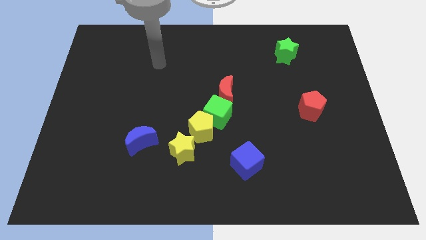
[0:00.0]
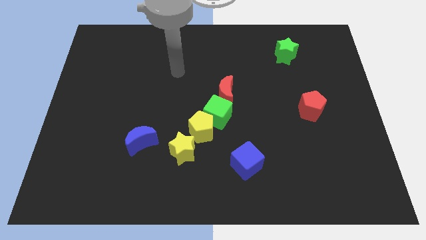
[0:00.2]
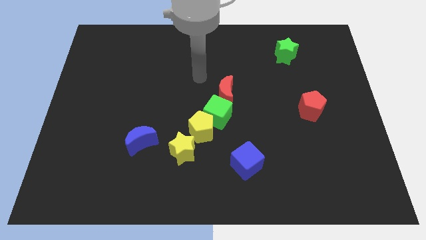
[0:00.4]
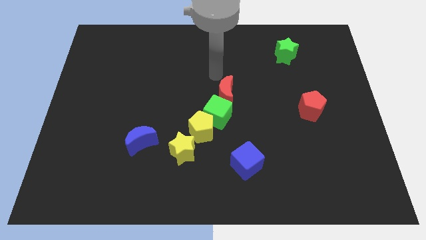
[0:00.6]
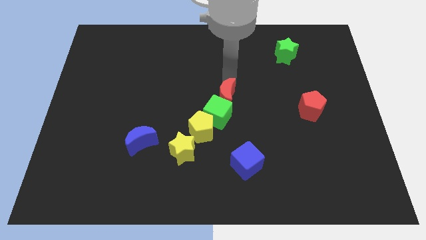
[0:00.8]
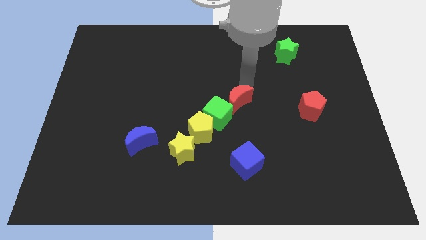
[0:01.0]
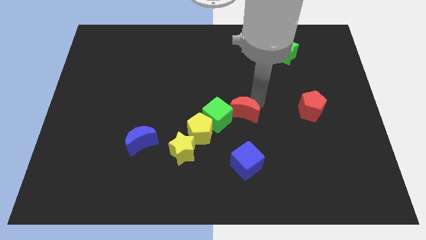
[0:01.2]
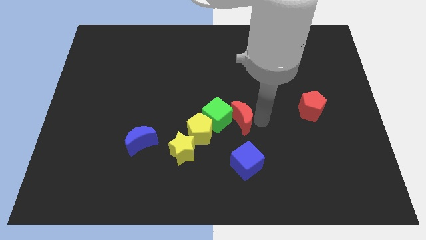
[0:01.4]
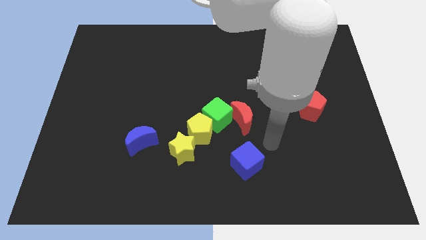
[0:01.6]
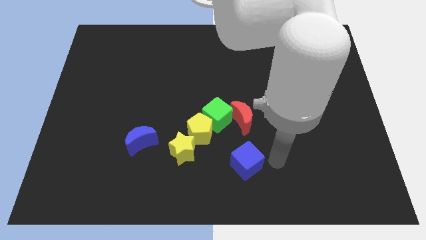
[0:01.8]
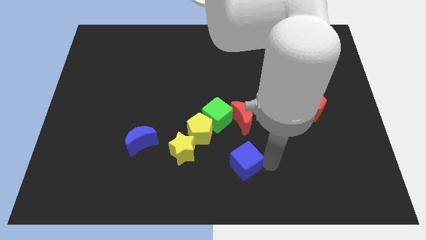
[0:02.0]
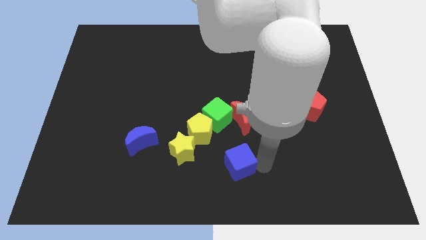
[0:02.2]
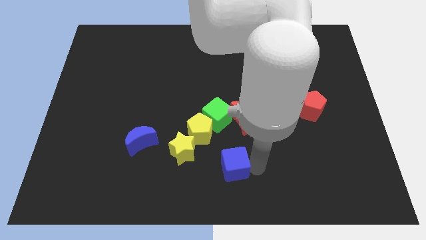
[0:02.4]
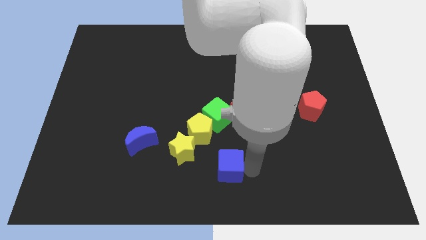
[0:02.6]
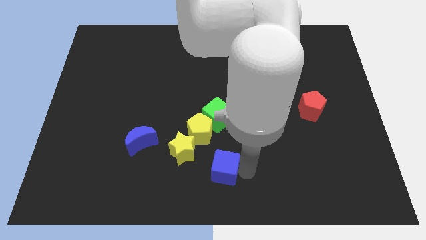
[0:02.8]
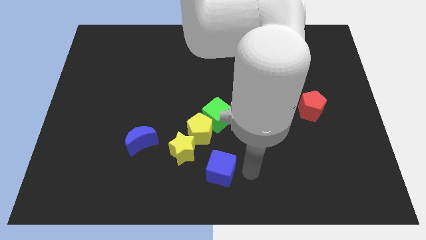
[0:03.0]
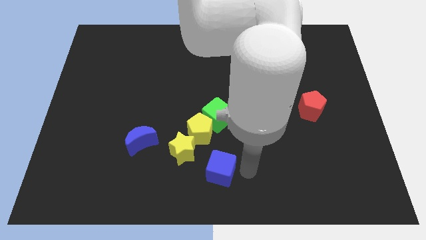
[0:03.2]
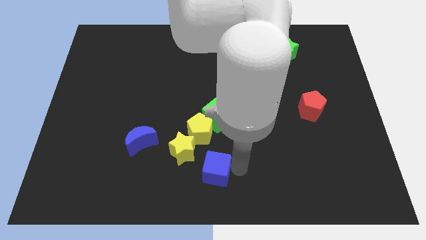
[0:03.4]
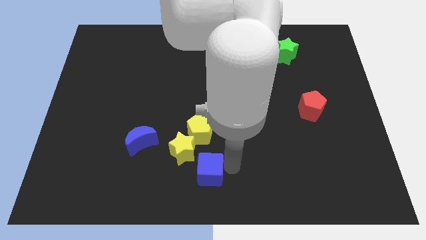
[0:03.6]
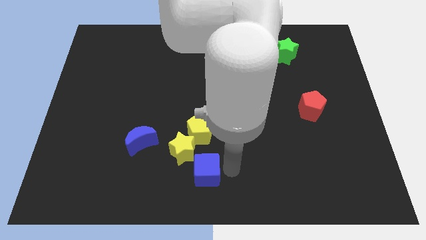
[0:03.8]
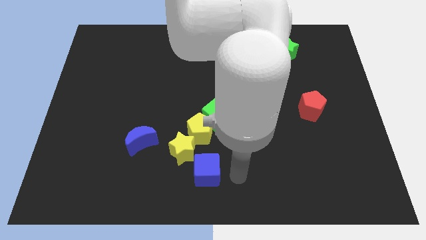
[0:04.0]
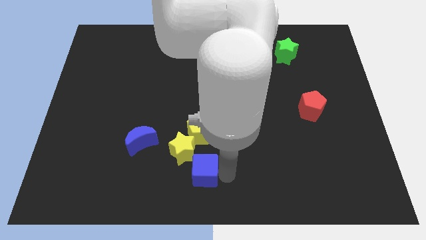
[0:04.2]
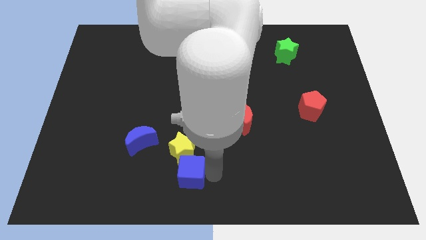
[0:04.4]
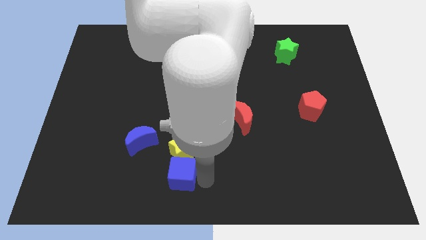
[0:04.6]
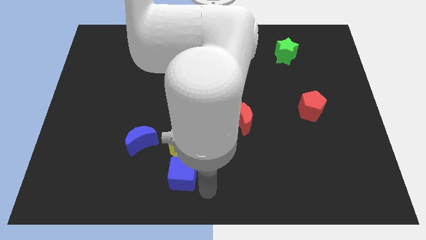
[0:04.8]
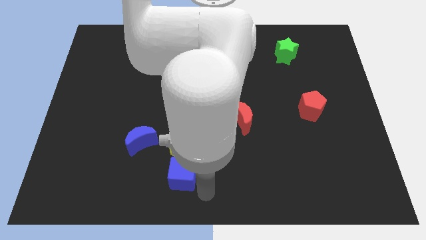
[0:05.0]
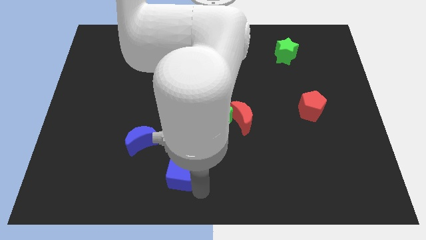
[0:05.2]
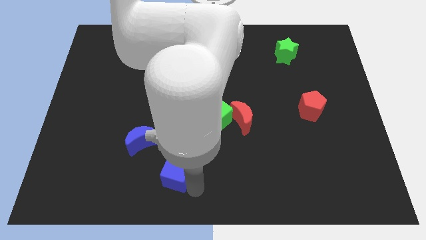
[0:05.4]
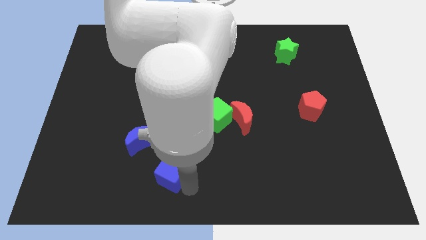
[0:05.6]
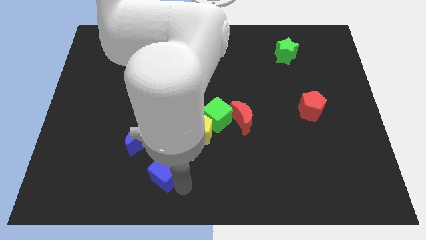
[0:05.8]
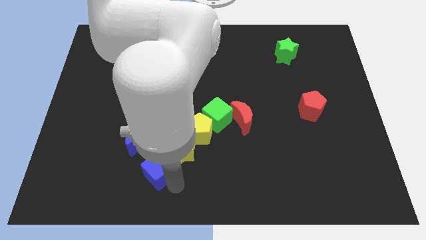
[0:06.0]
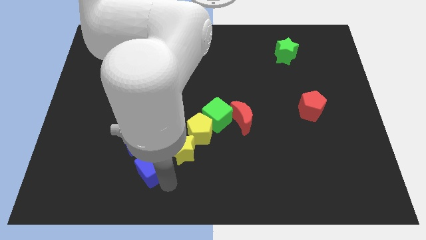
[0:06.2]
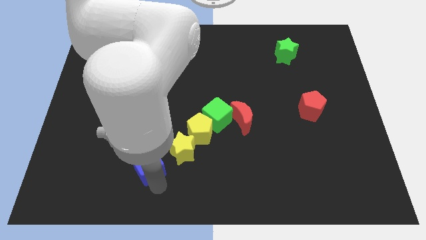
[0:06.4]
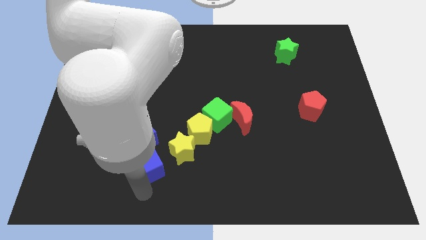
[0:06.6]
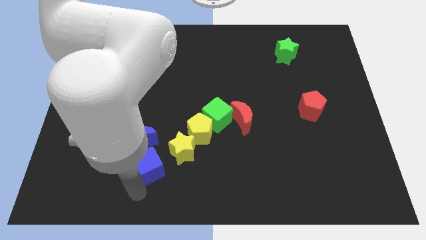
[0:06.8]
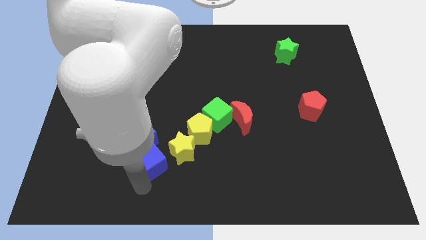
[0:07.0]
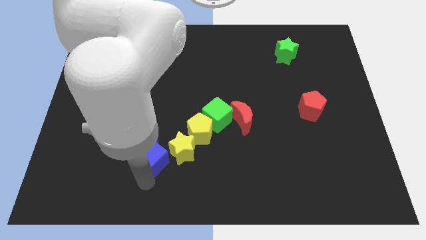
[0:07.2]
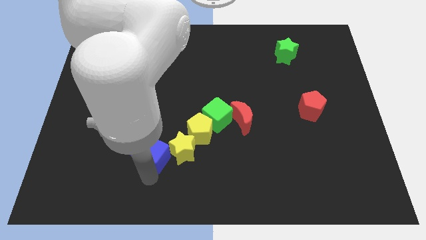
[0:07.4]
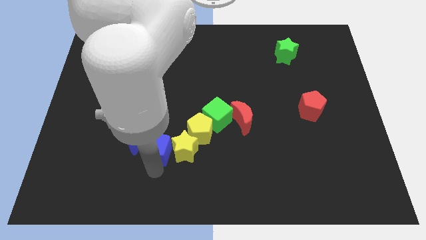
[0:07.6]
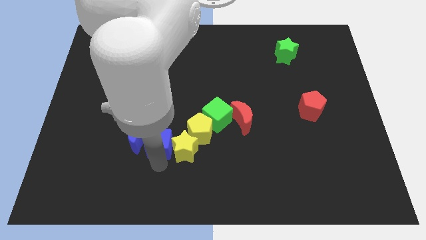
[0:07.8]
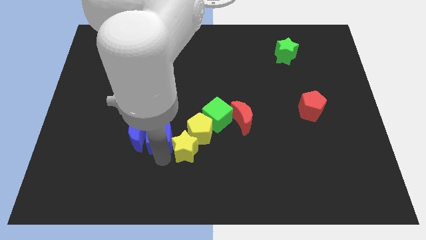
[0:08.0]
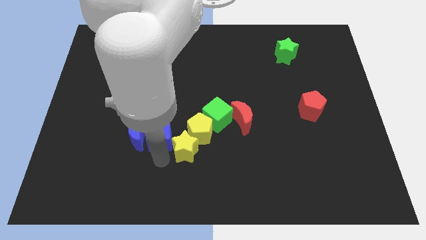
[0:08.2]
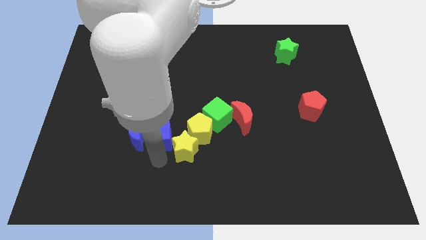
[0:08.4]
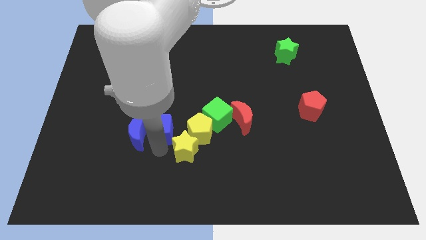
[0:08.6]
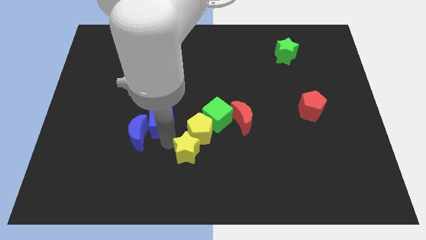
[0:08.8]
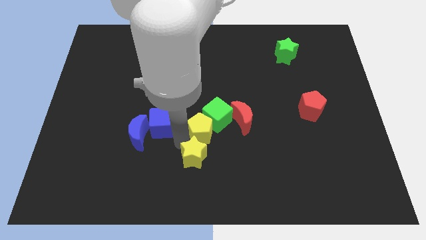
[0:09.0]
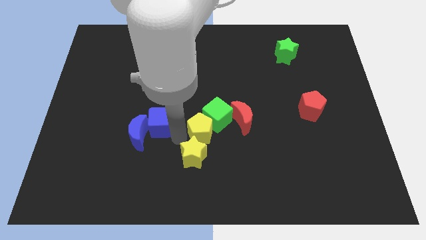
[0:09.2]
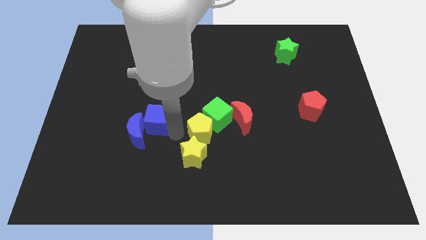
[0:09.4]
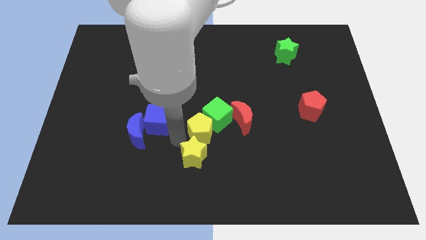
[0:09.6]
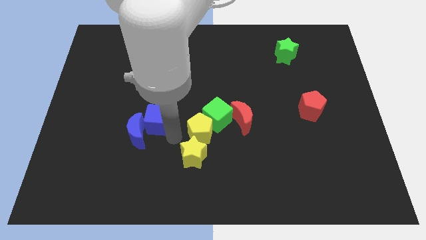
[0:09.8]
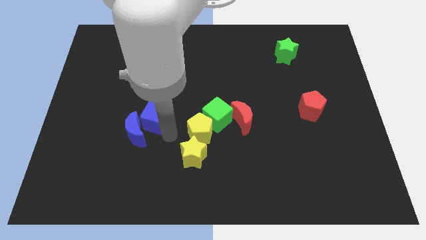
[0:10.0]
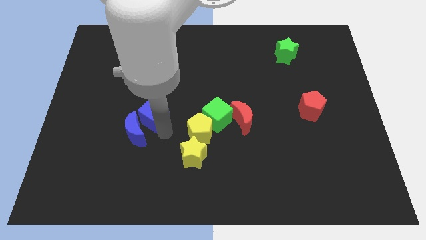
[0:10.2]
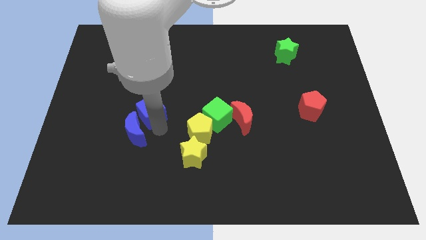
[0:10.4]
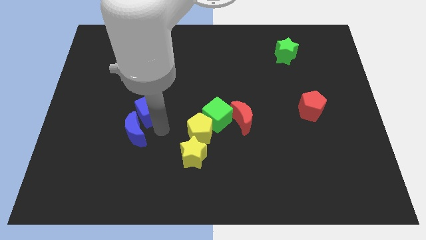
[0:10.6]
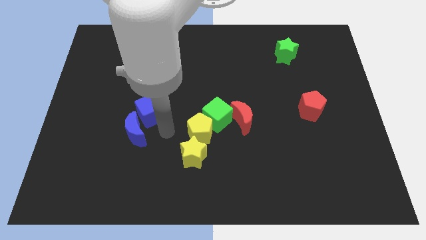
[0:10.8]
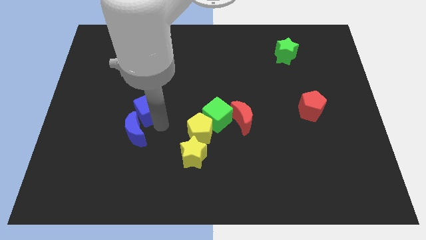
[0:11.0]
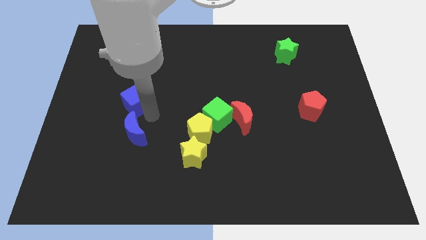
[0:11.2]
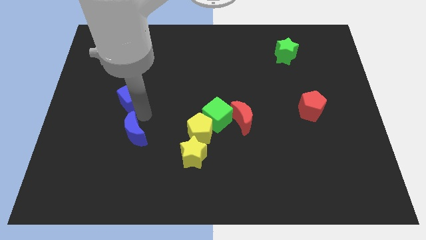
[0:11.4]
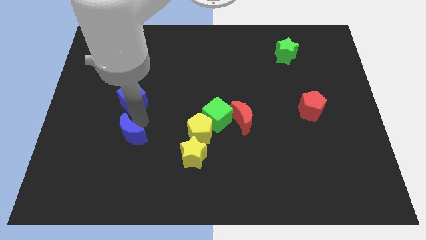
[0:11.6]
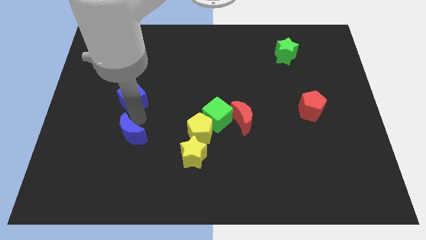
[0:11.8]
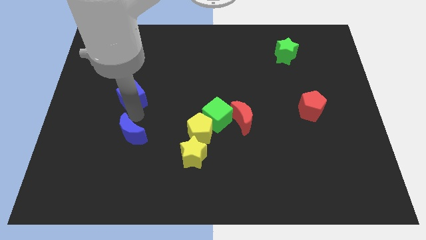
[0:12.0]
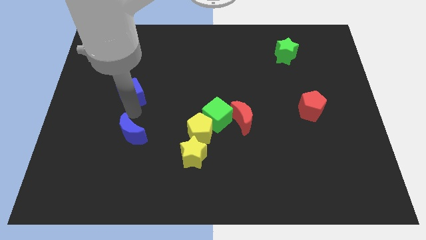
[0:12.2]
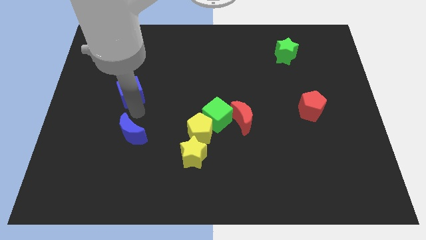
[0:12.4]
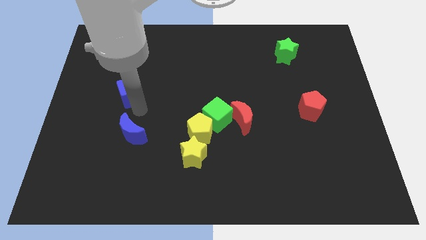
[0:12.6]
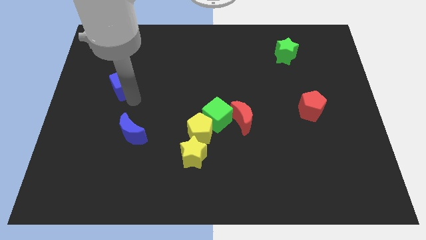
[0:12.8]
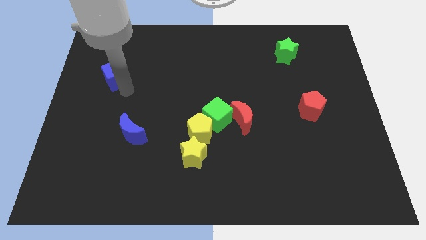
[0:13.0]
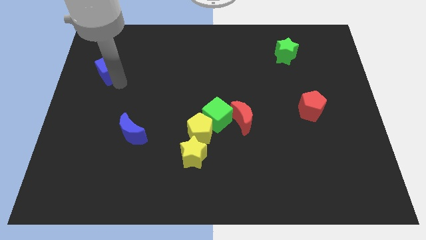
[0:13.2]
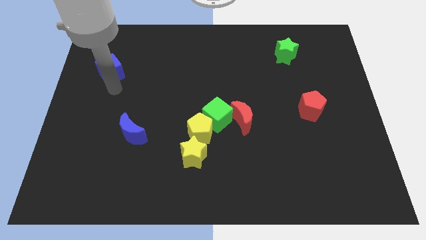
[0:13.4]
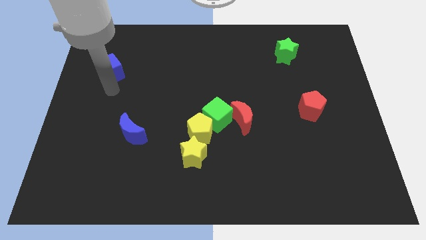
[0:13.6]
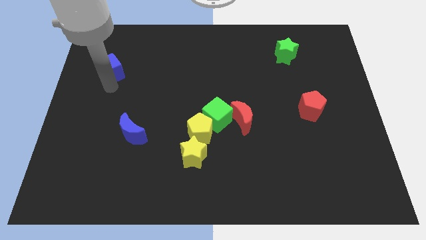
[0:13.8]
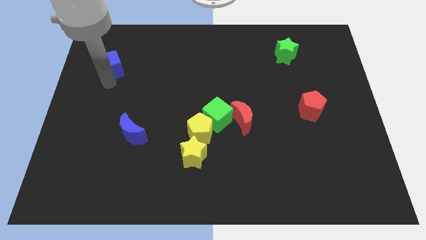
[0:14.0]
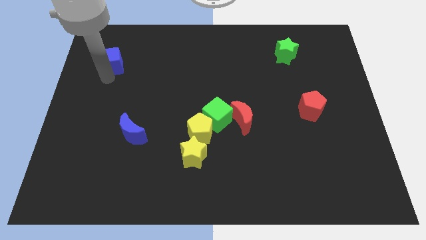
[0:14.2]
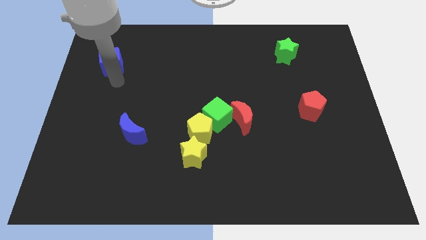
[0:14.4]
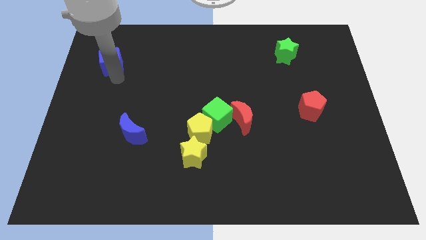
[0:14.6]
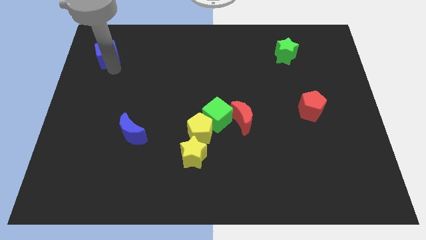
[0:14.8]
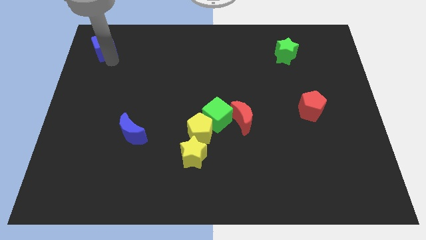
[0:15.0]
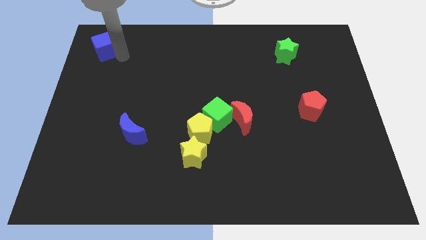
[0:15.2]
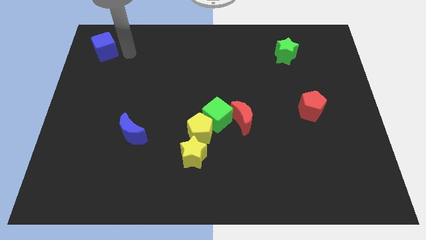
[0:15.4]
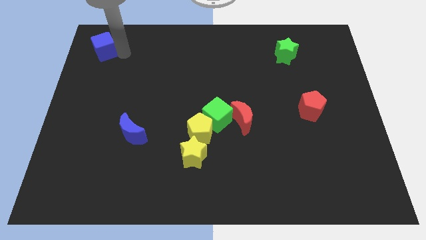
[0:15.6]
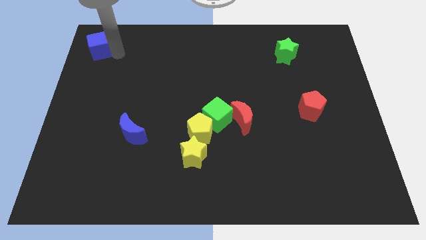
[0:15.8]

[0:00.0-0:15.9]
push the blue cube to the upper left corner
